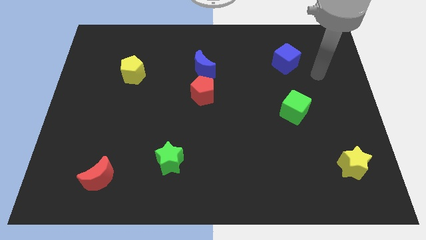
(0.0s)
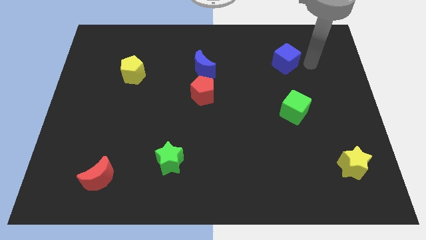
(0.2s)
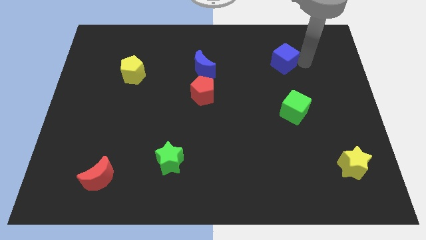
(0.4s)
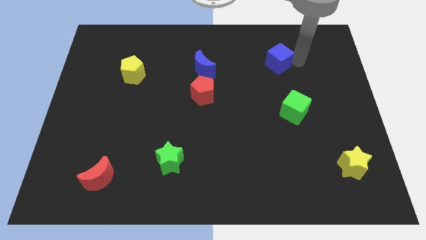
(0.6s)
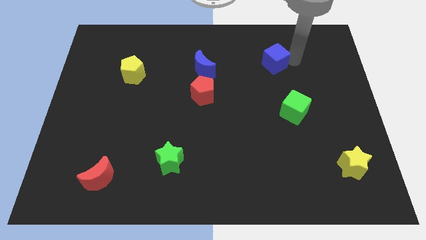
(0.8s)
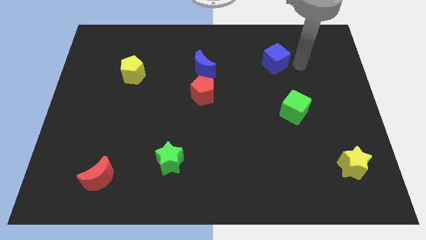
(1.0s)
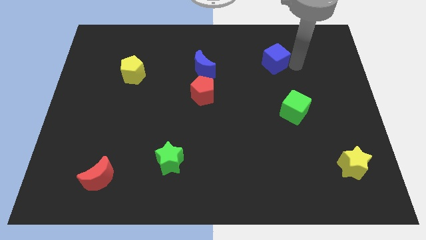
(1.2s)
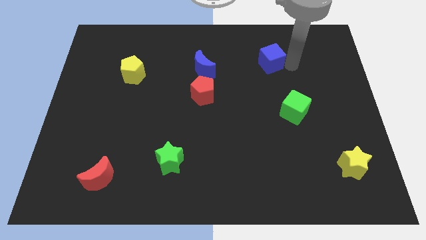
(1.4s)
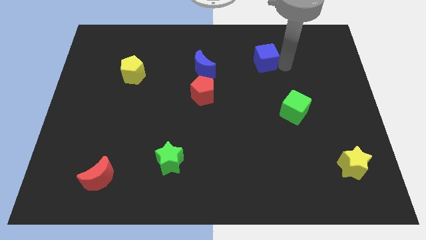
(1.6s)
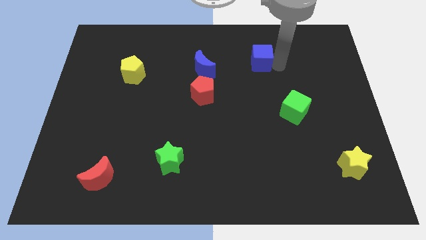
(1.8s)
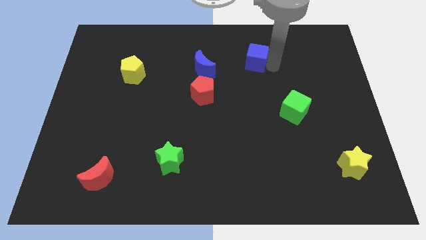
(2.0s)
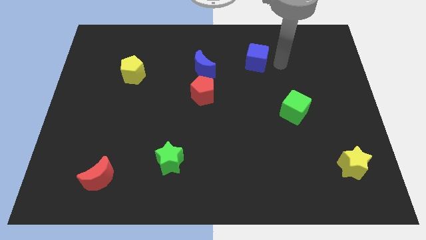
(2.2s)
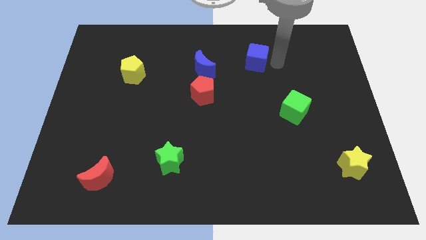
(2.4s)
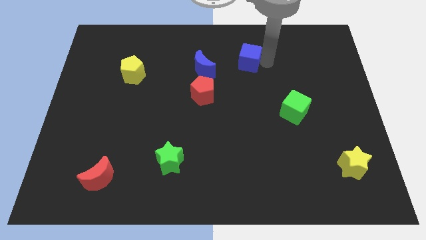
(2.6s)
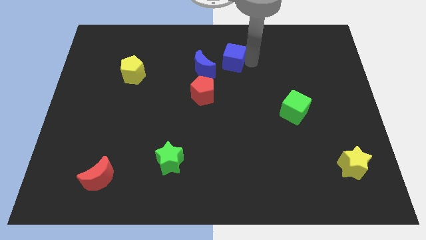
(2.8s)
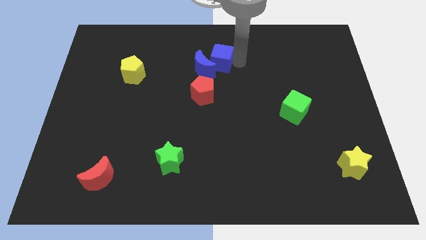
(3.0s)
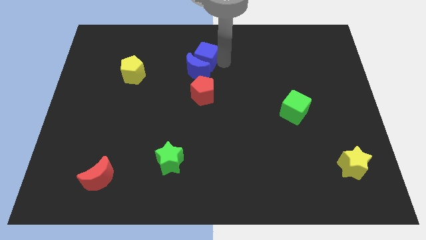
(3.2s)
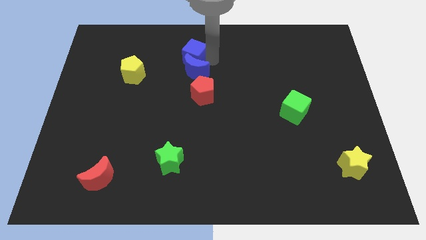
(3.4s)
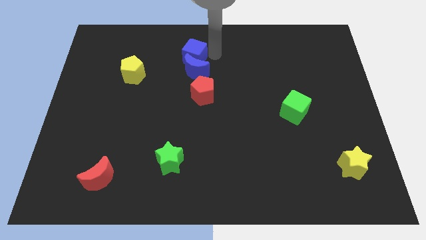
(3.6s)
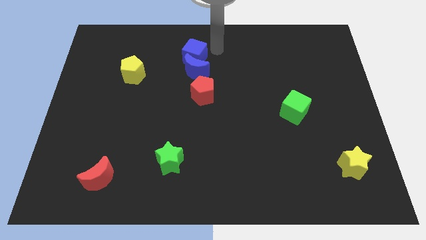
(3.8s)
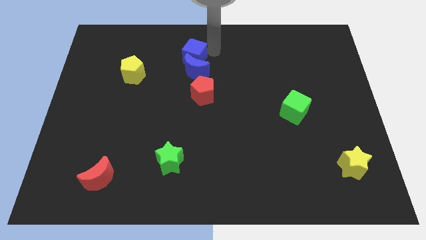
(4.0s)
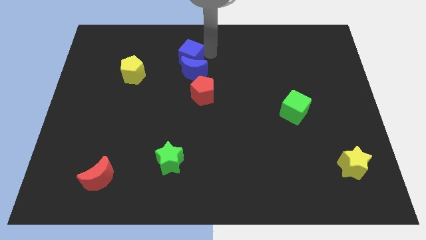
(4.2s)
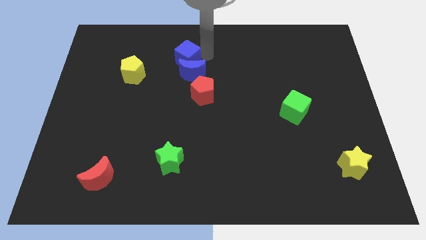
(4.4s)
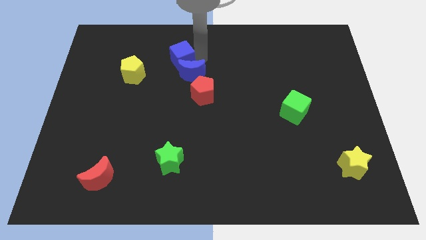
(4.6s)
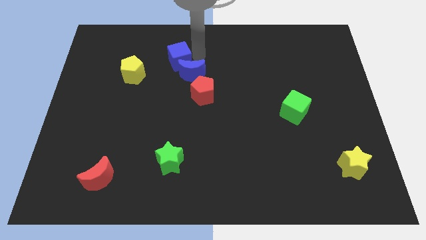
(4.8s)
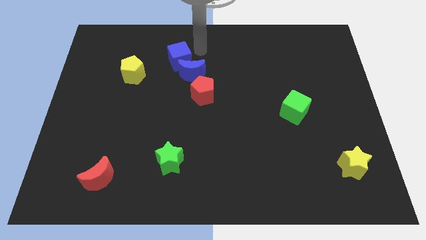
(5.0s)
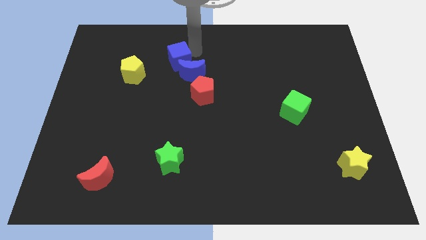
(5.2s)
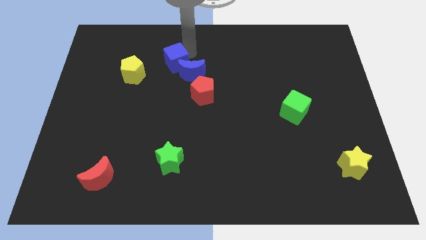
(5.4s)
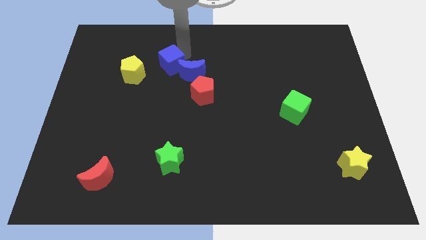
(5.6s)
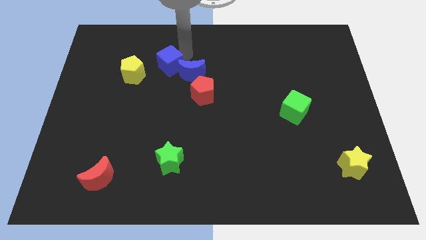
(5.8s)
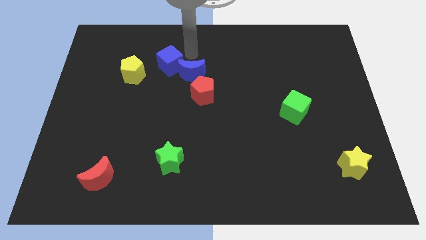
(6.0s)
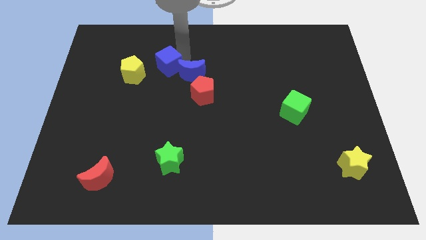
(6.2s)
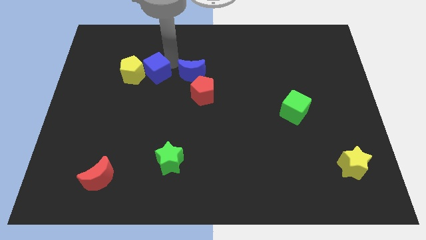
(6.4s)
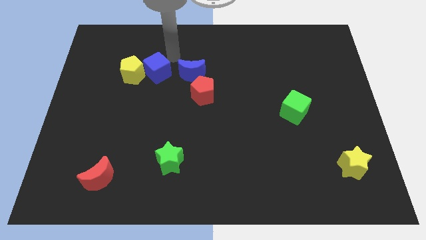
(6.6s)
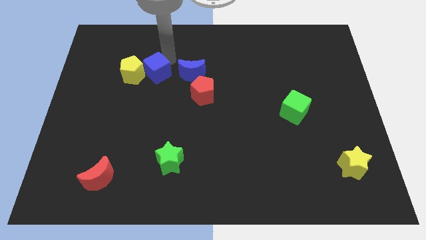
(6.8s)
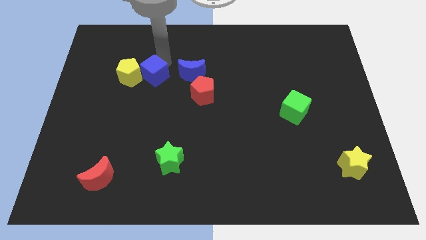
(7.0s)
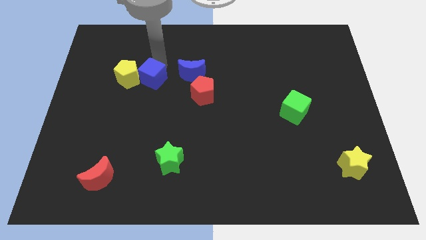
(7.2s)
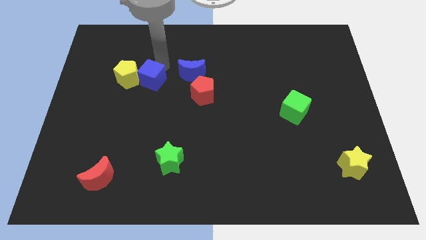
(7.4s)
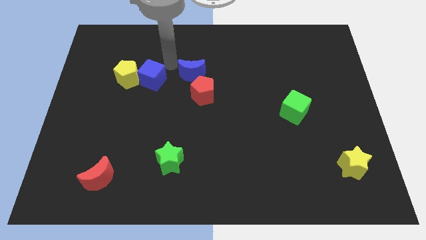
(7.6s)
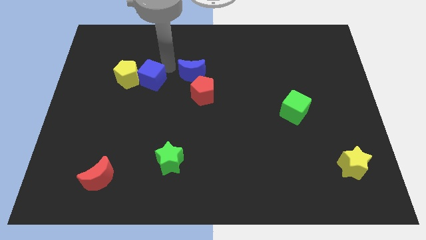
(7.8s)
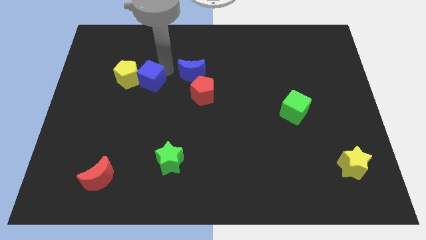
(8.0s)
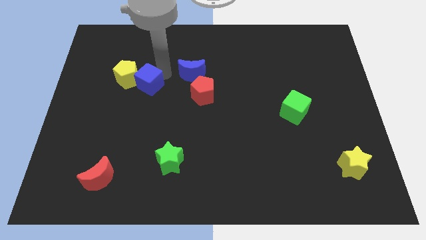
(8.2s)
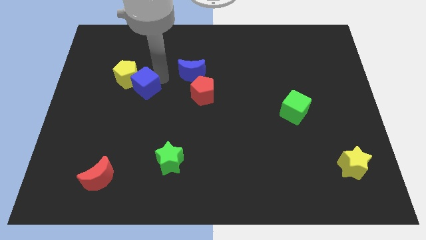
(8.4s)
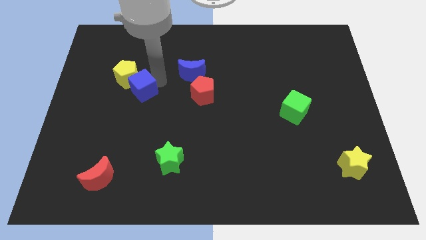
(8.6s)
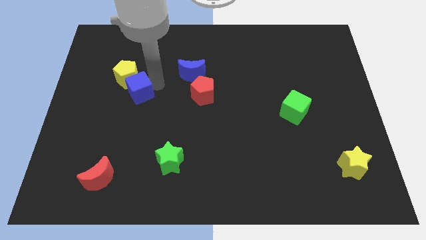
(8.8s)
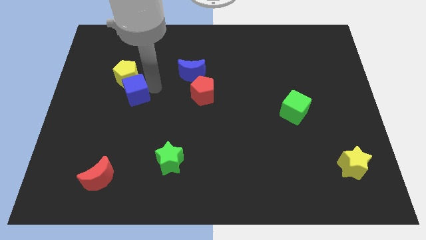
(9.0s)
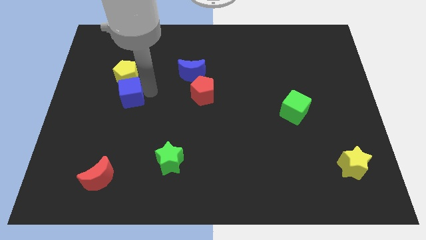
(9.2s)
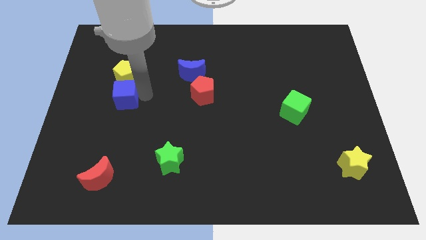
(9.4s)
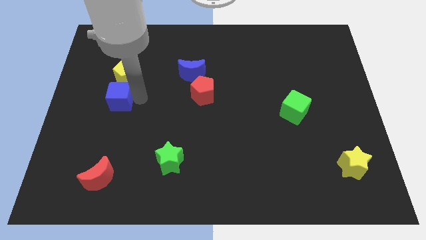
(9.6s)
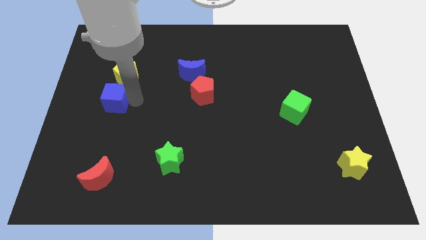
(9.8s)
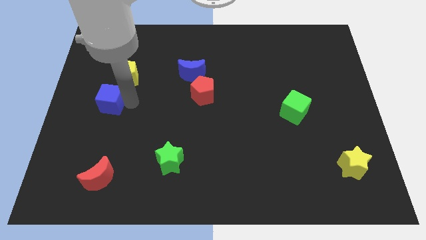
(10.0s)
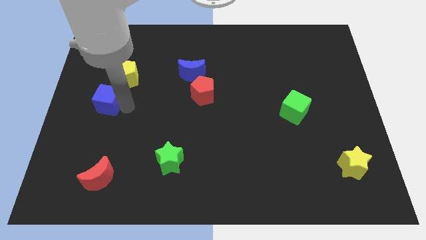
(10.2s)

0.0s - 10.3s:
move the blue cube to the left side of the board

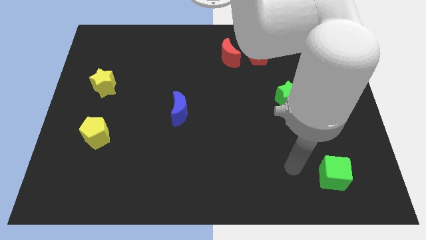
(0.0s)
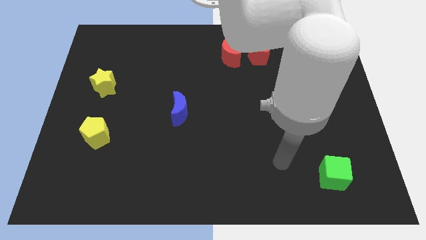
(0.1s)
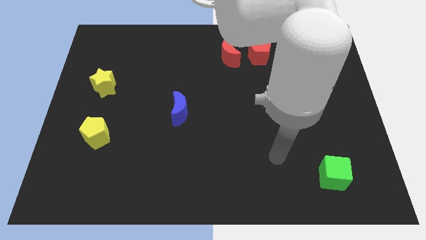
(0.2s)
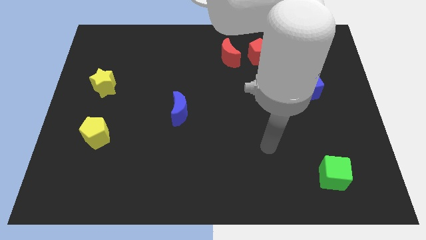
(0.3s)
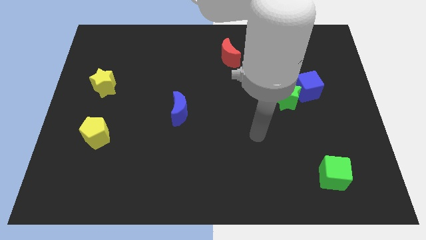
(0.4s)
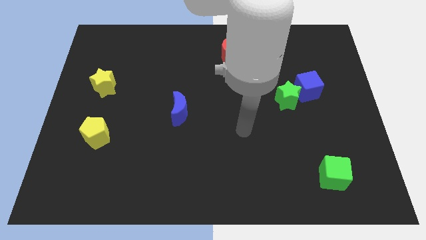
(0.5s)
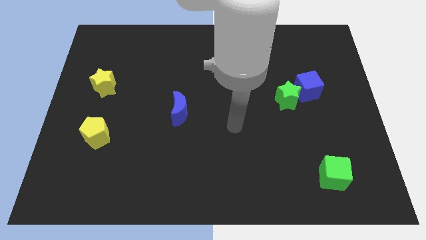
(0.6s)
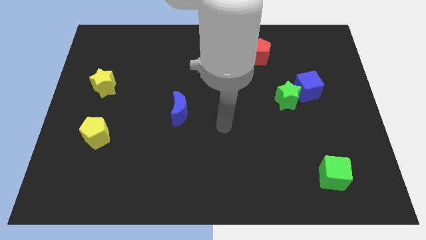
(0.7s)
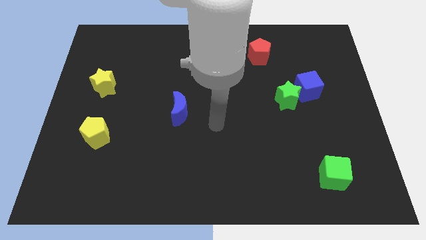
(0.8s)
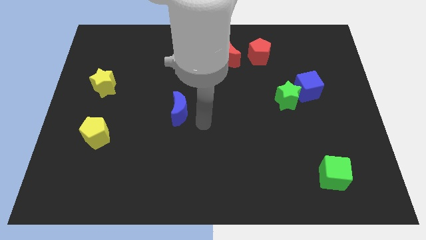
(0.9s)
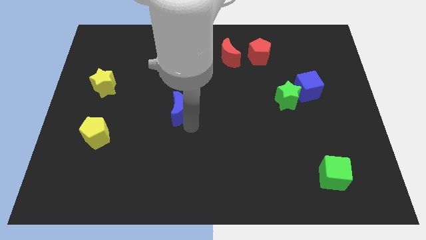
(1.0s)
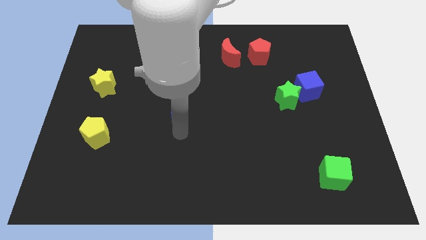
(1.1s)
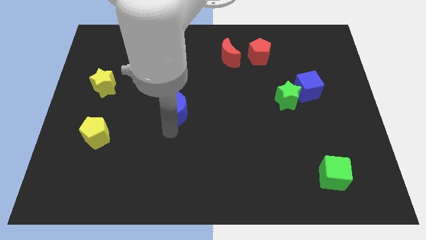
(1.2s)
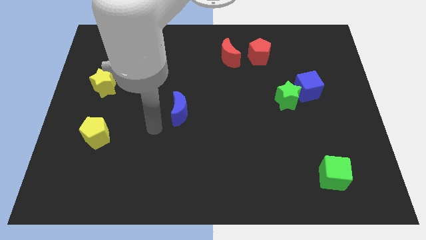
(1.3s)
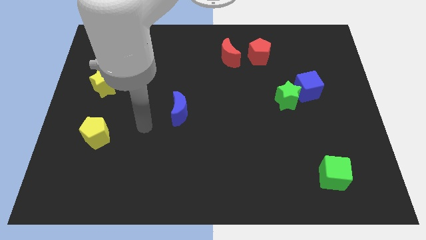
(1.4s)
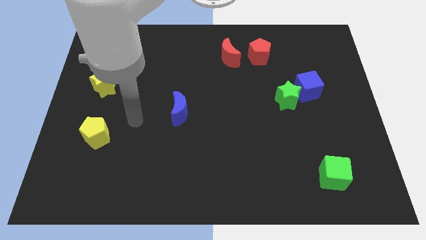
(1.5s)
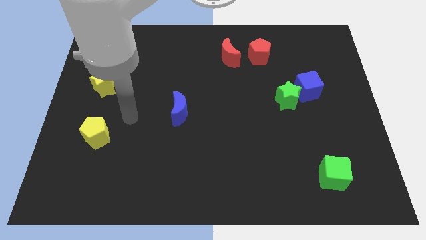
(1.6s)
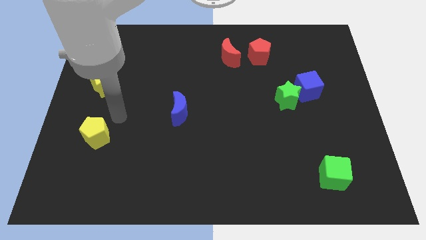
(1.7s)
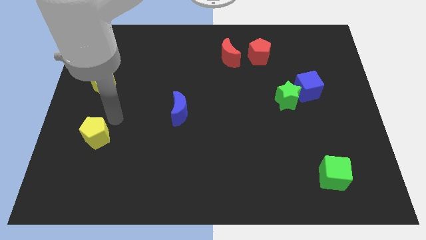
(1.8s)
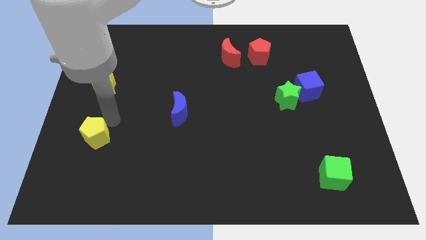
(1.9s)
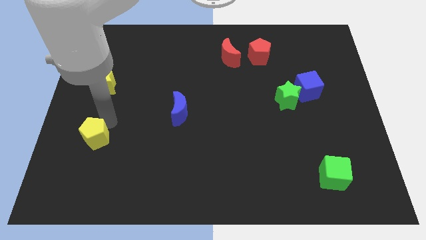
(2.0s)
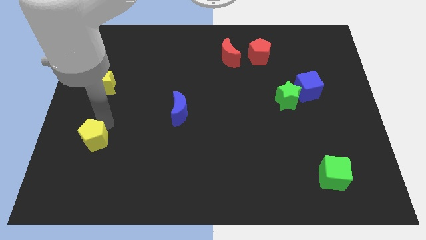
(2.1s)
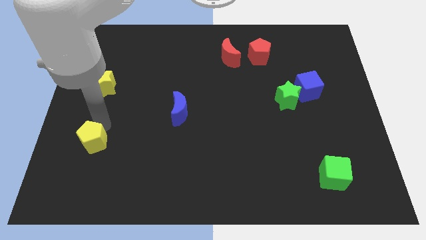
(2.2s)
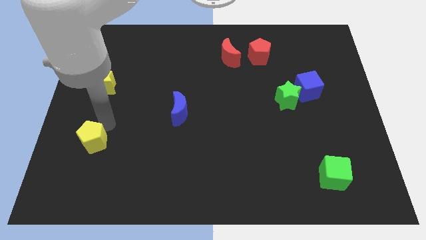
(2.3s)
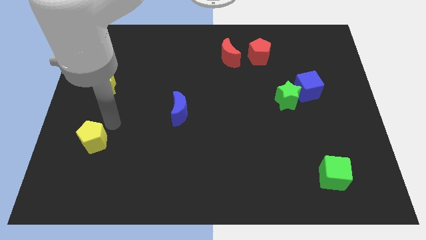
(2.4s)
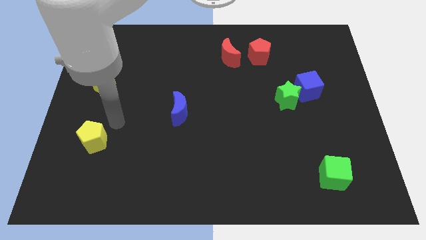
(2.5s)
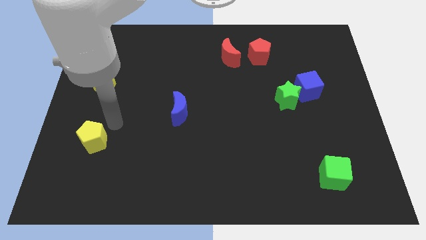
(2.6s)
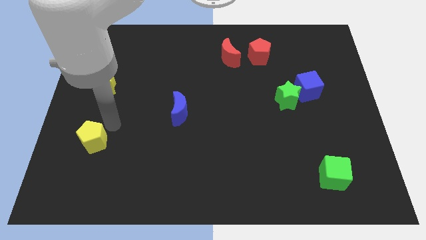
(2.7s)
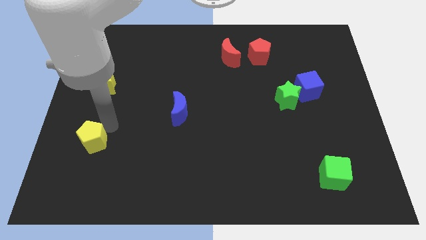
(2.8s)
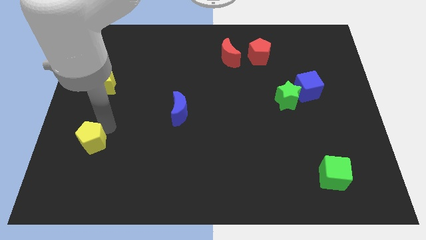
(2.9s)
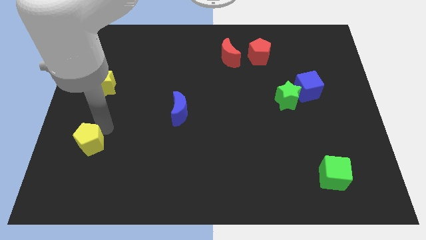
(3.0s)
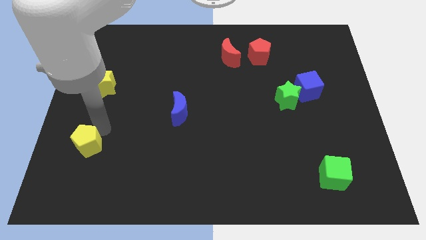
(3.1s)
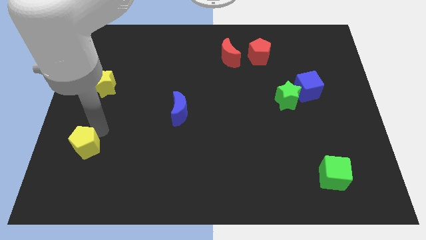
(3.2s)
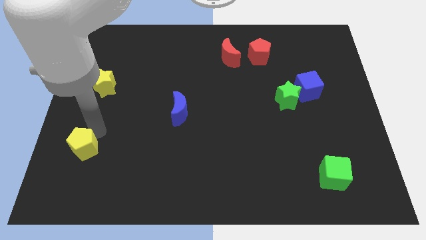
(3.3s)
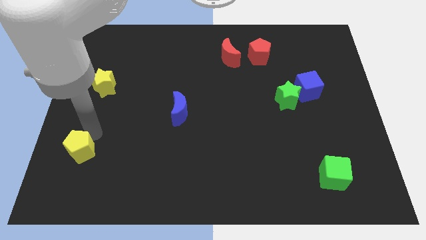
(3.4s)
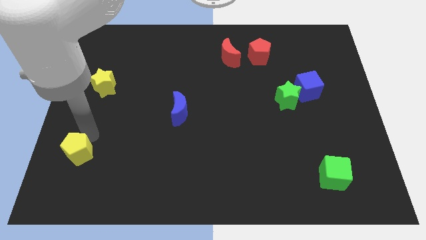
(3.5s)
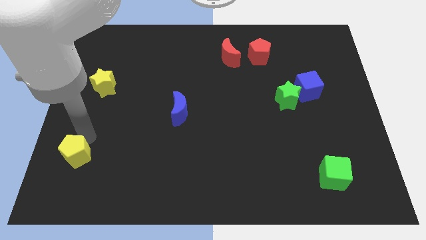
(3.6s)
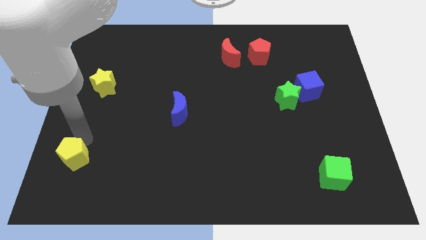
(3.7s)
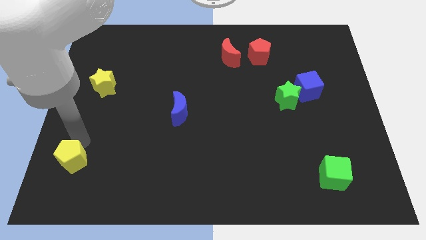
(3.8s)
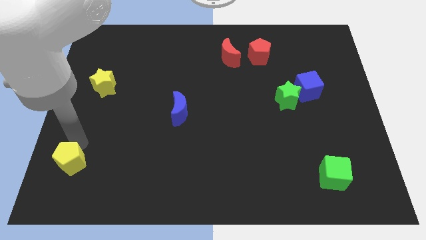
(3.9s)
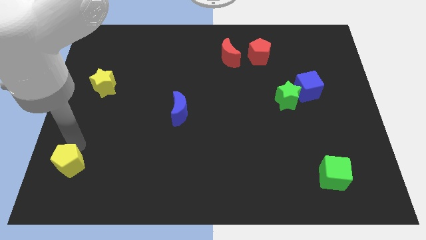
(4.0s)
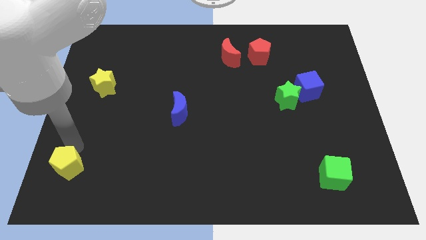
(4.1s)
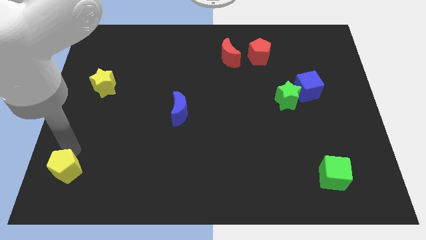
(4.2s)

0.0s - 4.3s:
put the yellow pentagon to the bottom left corner
